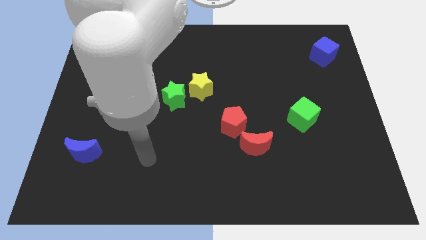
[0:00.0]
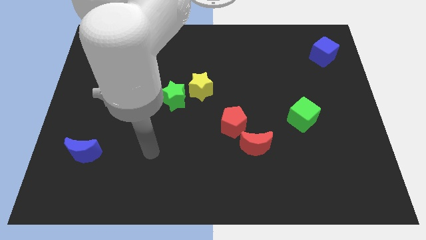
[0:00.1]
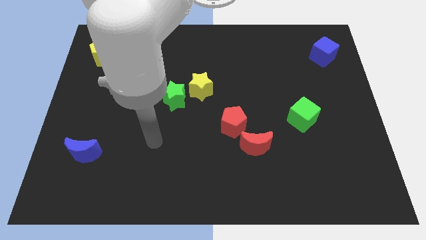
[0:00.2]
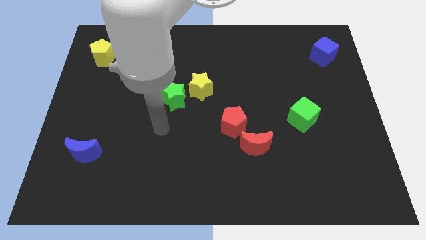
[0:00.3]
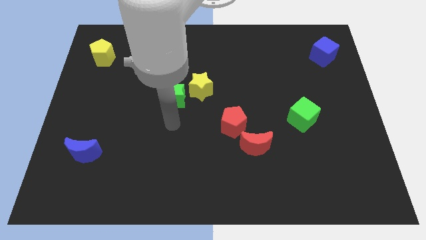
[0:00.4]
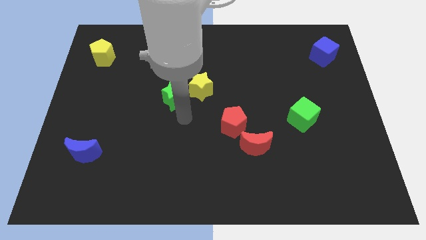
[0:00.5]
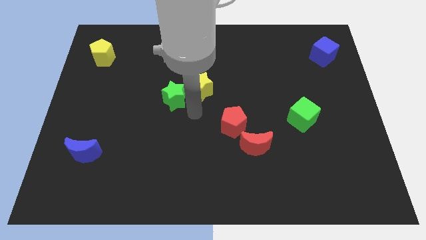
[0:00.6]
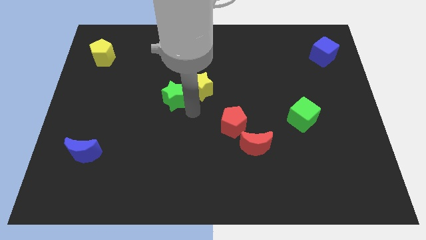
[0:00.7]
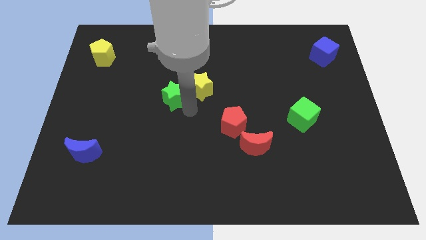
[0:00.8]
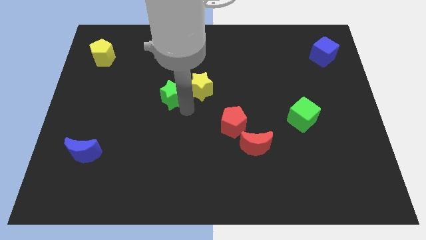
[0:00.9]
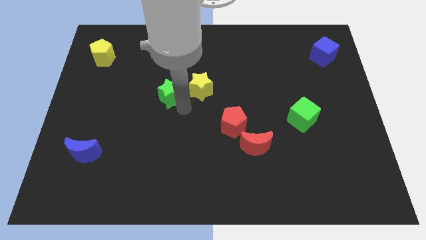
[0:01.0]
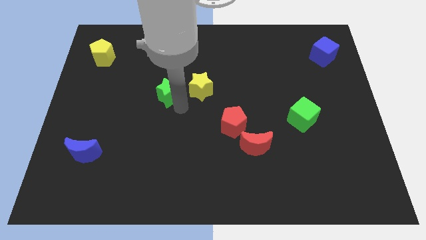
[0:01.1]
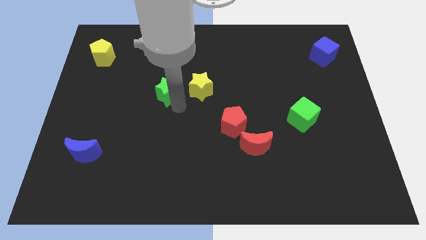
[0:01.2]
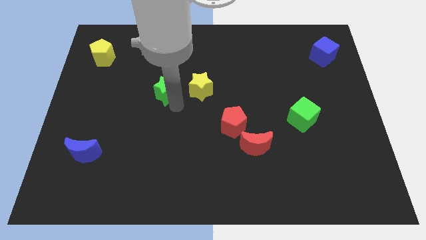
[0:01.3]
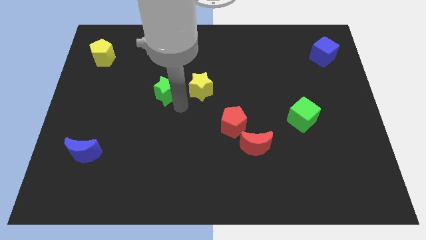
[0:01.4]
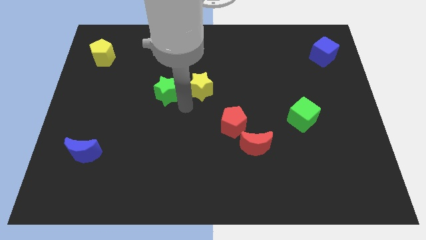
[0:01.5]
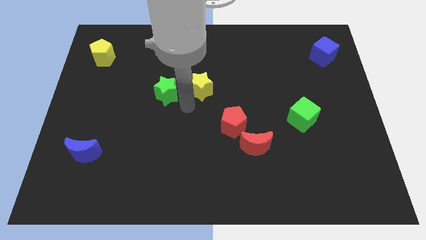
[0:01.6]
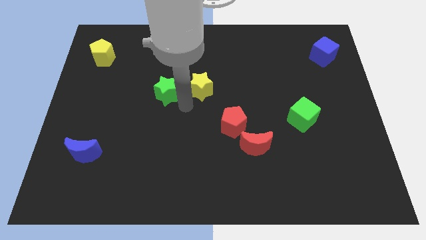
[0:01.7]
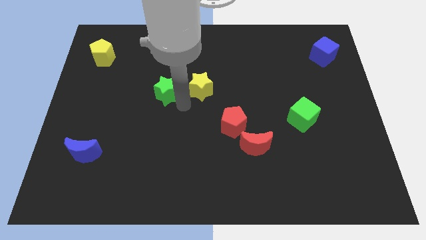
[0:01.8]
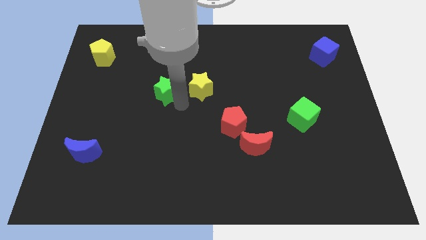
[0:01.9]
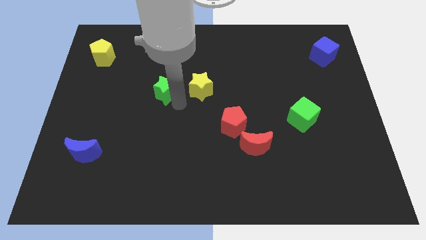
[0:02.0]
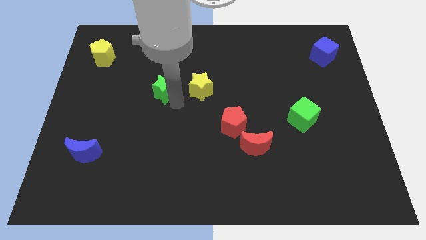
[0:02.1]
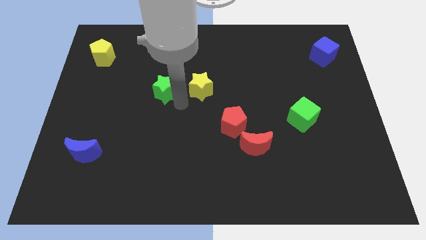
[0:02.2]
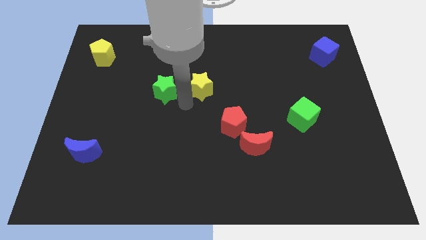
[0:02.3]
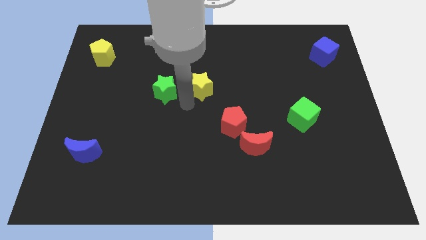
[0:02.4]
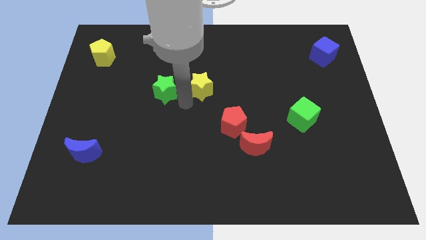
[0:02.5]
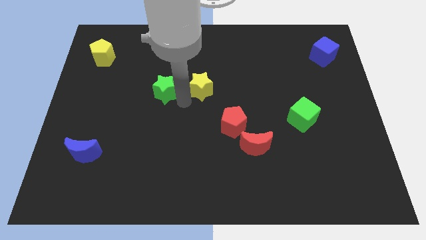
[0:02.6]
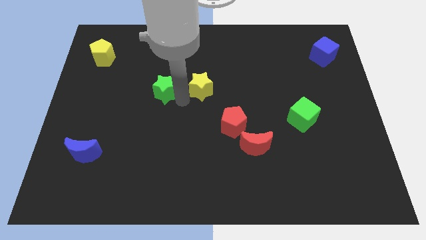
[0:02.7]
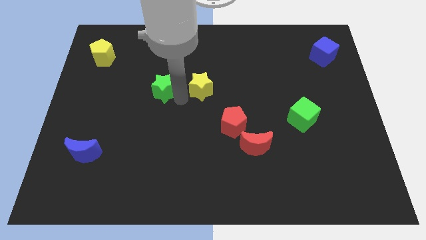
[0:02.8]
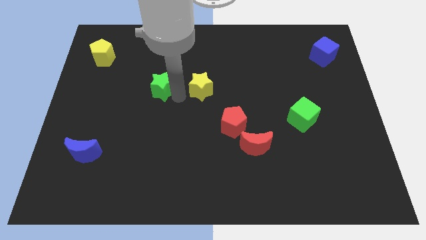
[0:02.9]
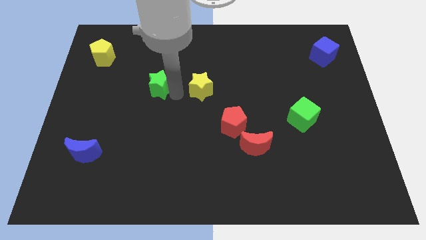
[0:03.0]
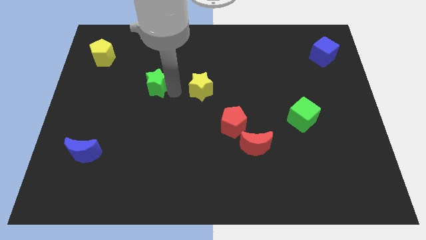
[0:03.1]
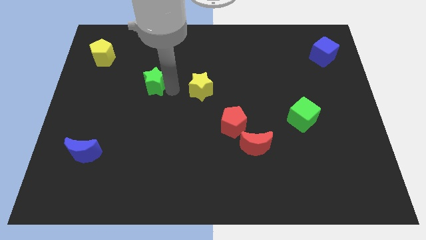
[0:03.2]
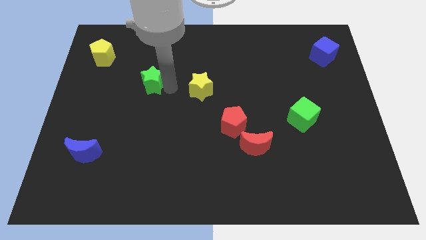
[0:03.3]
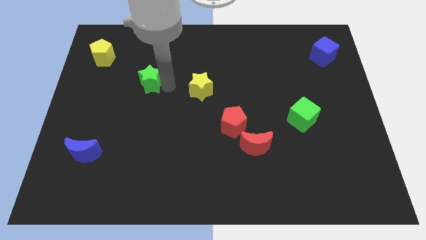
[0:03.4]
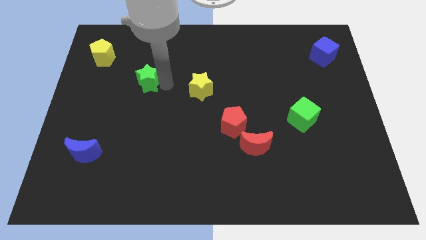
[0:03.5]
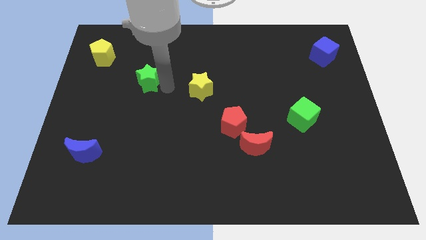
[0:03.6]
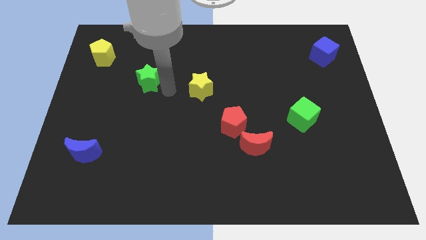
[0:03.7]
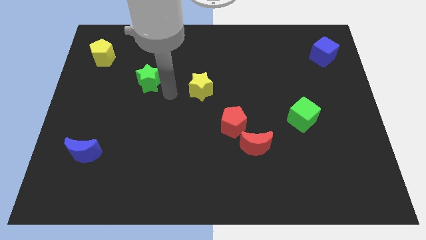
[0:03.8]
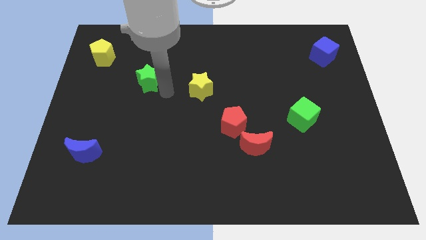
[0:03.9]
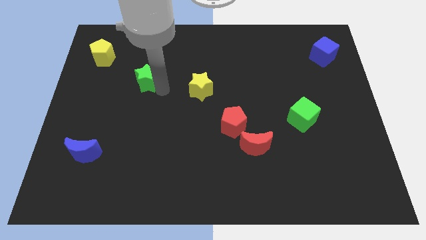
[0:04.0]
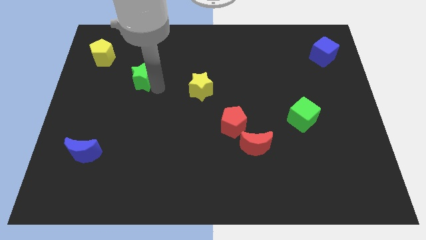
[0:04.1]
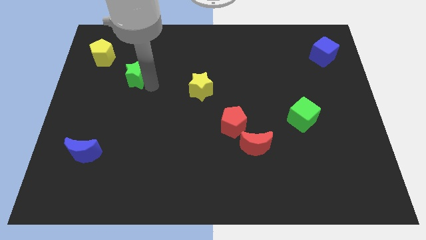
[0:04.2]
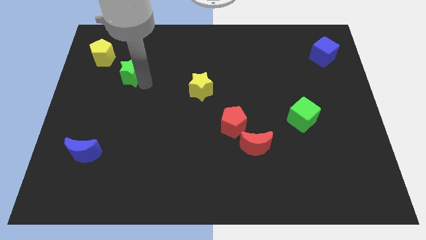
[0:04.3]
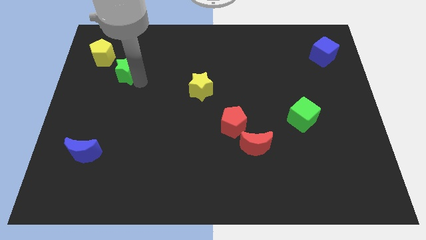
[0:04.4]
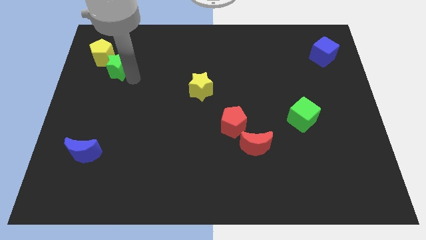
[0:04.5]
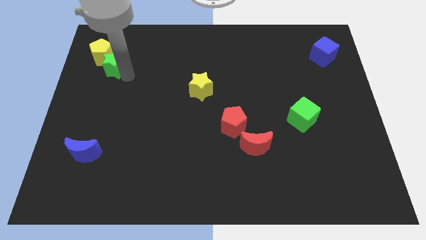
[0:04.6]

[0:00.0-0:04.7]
move the green star towards the yellow pentagon

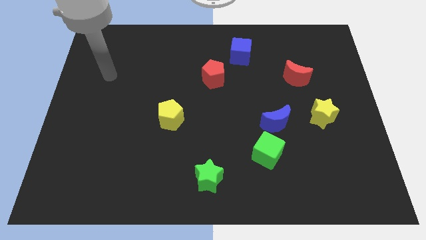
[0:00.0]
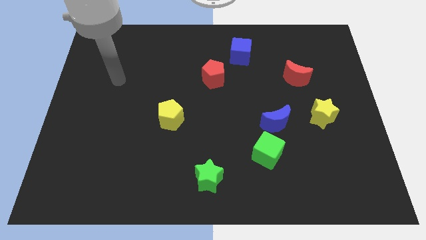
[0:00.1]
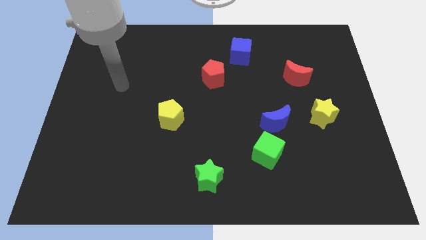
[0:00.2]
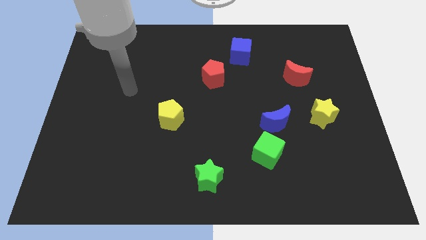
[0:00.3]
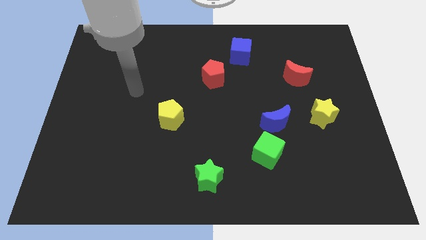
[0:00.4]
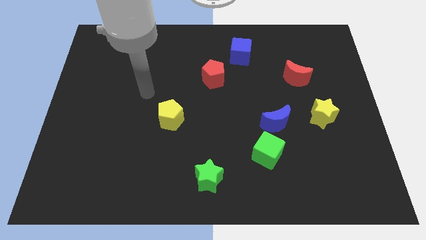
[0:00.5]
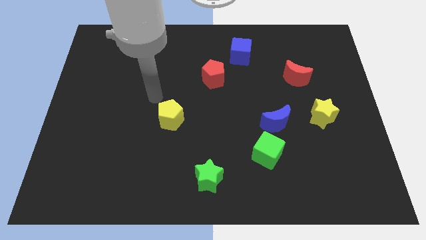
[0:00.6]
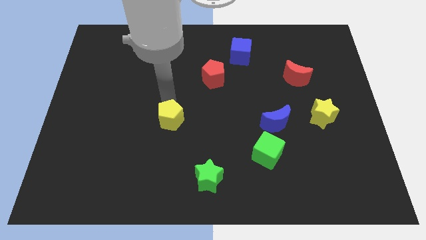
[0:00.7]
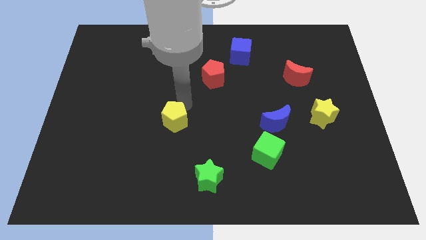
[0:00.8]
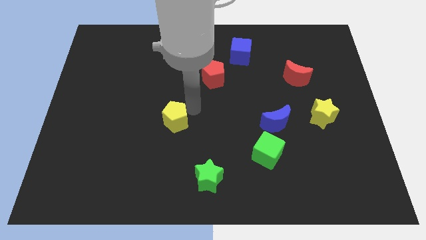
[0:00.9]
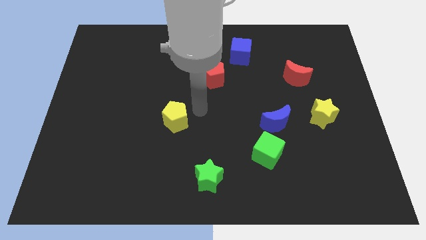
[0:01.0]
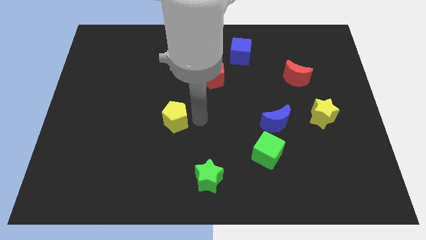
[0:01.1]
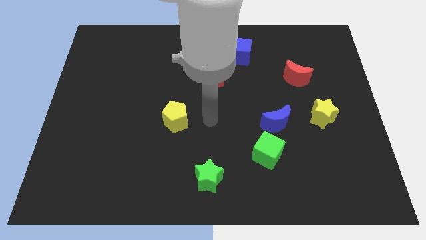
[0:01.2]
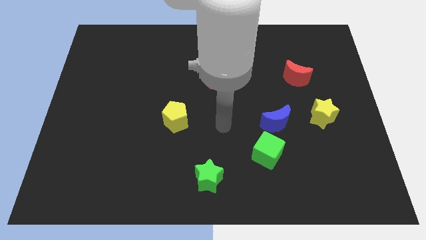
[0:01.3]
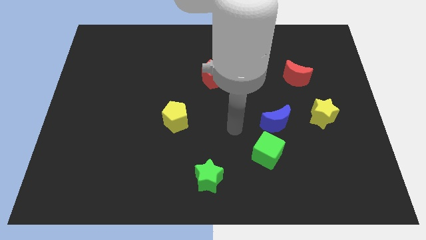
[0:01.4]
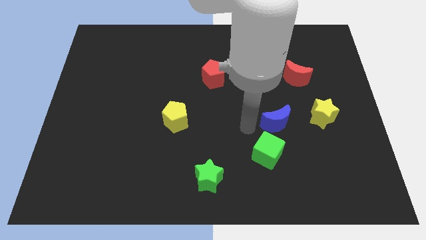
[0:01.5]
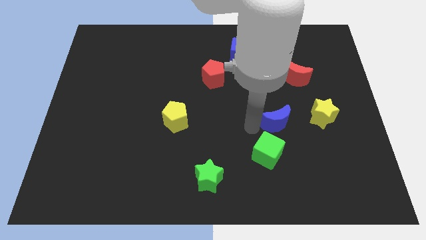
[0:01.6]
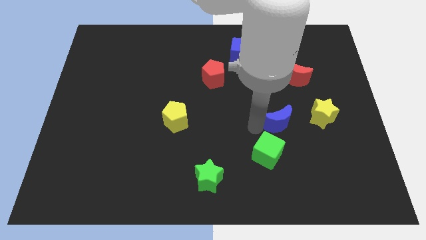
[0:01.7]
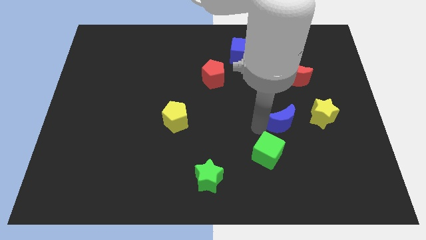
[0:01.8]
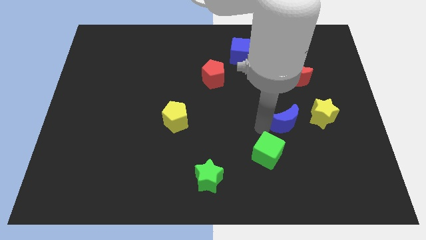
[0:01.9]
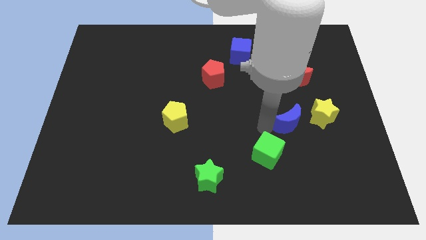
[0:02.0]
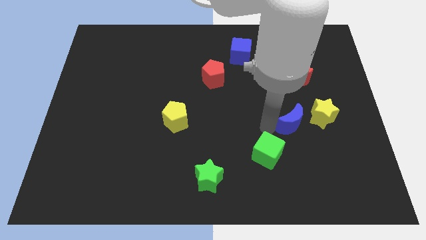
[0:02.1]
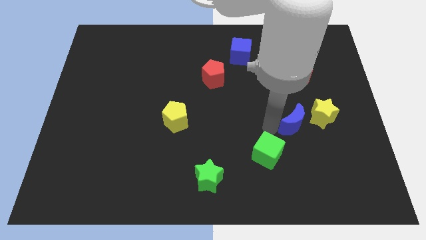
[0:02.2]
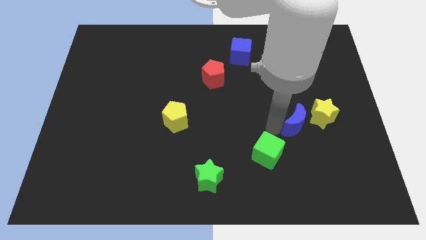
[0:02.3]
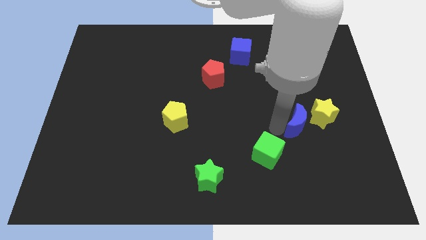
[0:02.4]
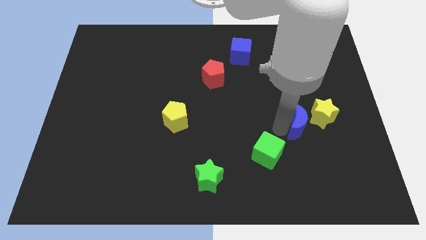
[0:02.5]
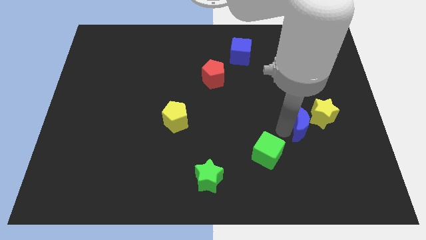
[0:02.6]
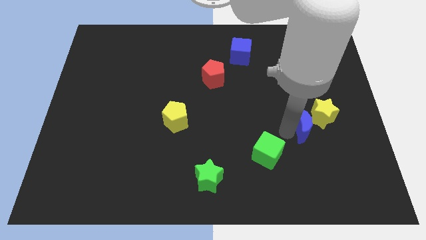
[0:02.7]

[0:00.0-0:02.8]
push the blue moon towards the yellow star

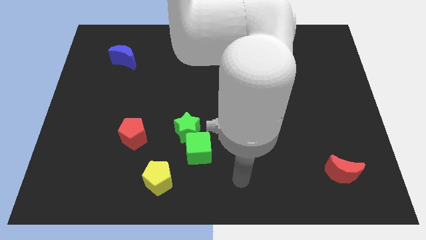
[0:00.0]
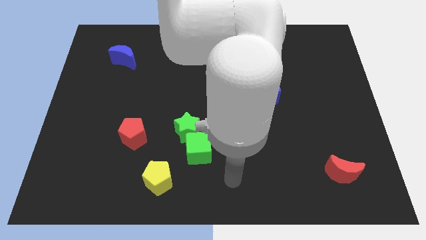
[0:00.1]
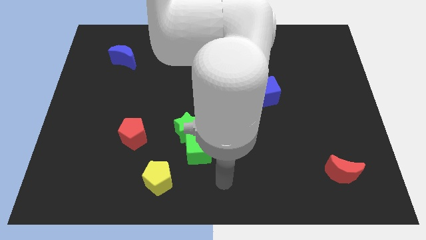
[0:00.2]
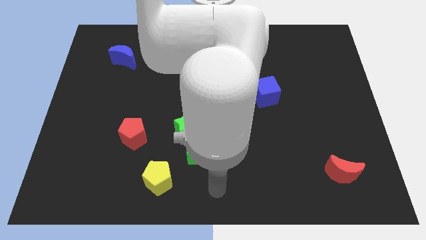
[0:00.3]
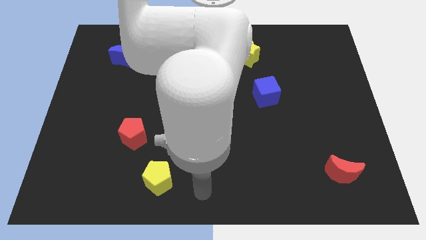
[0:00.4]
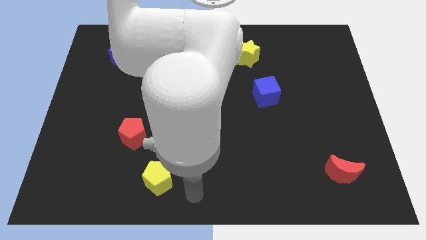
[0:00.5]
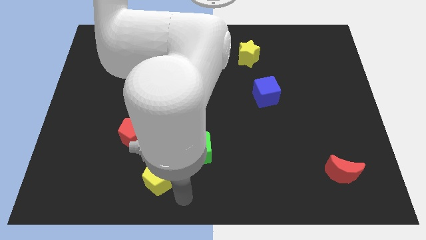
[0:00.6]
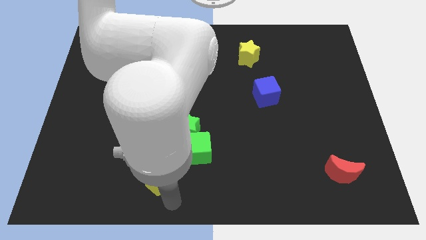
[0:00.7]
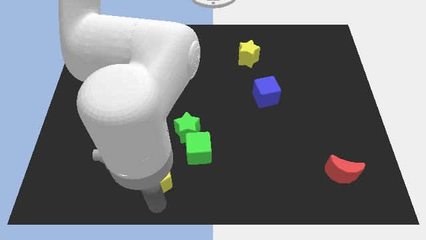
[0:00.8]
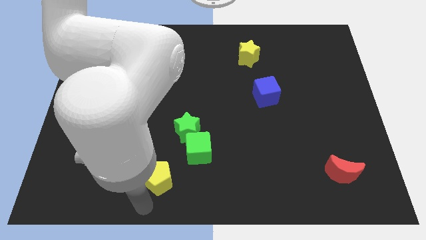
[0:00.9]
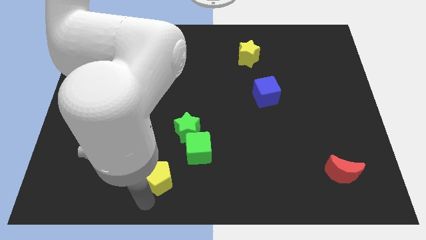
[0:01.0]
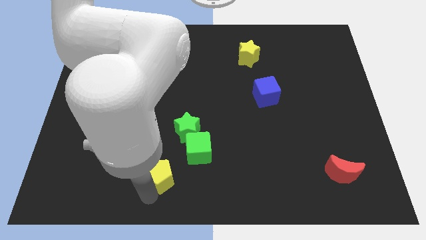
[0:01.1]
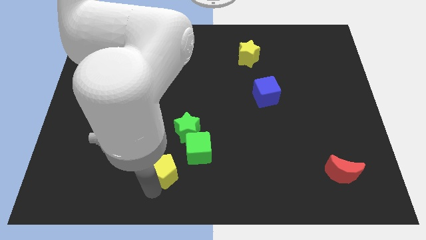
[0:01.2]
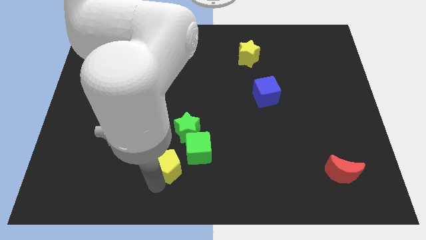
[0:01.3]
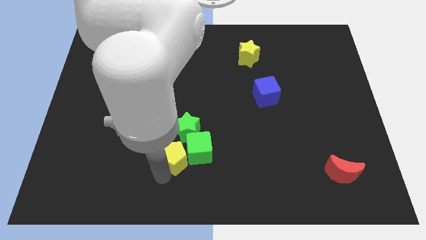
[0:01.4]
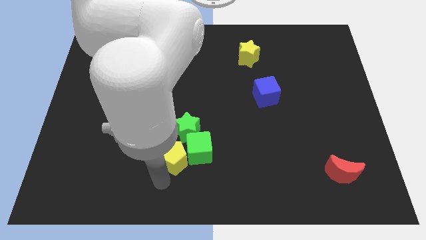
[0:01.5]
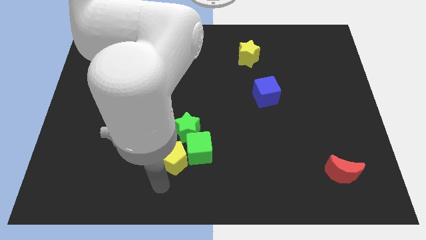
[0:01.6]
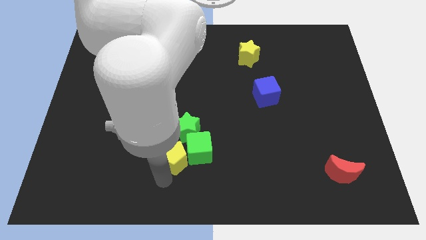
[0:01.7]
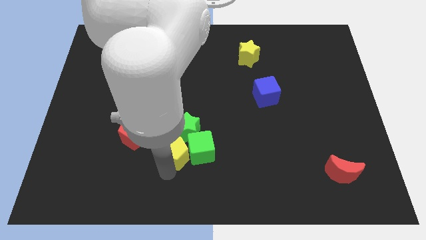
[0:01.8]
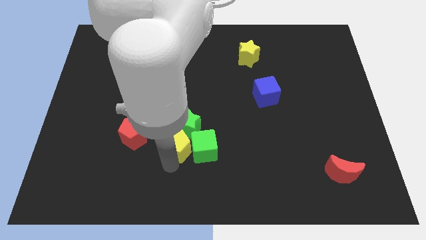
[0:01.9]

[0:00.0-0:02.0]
push the yellow pentagon next to the green star
